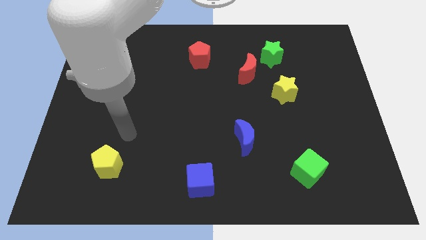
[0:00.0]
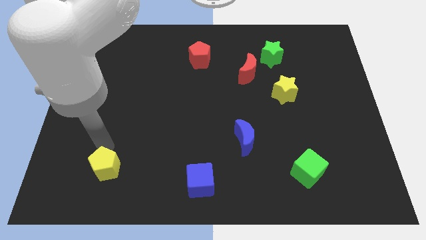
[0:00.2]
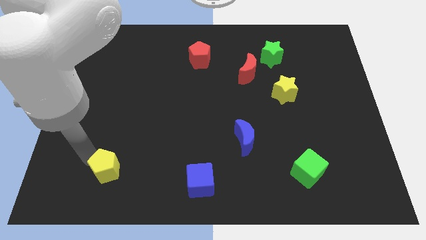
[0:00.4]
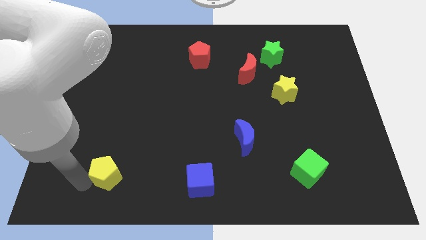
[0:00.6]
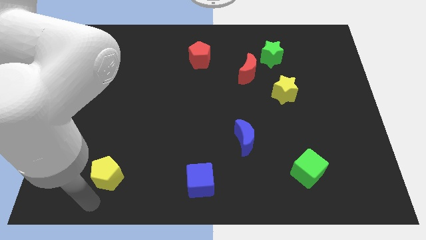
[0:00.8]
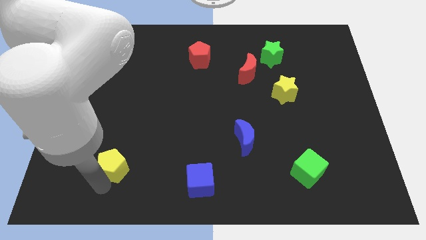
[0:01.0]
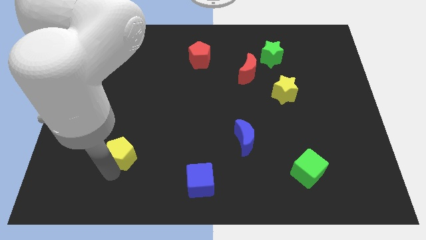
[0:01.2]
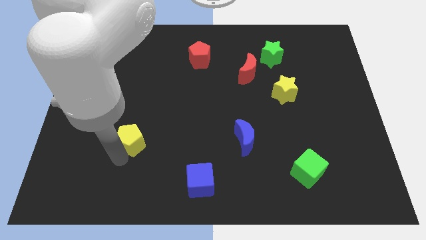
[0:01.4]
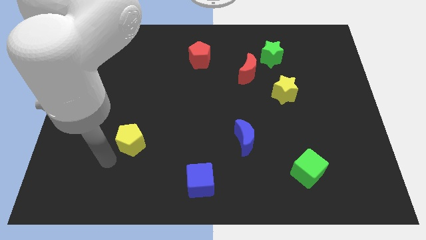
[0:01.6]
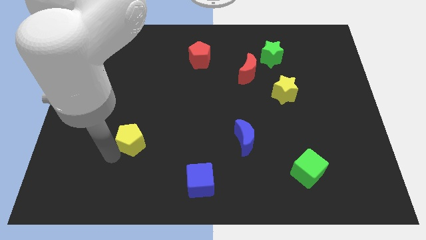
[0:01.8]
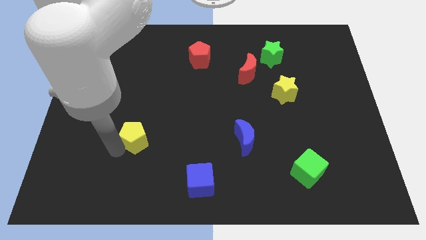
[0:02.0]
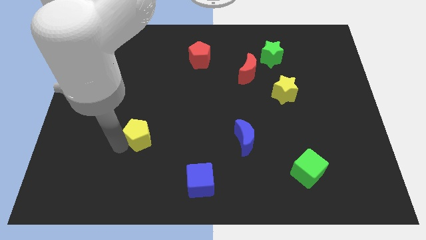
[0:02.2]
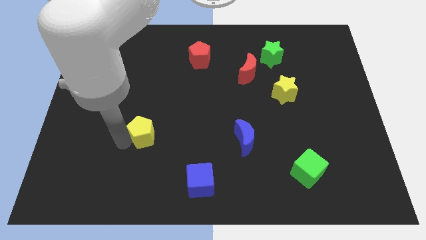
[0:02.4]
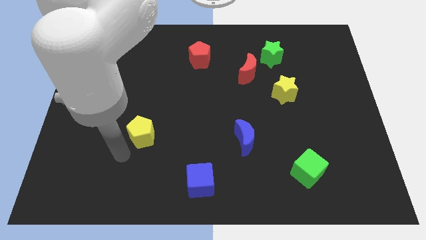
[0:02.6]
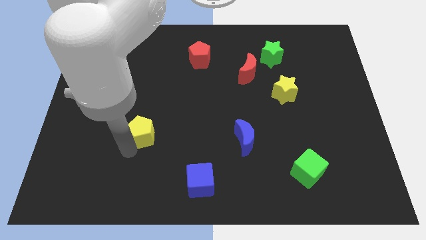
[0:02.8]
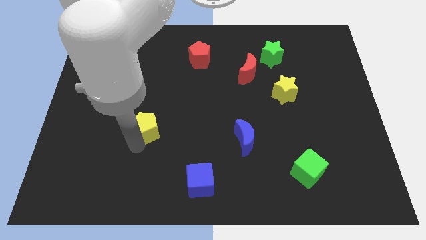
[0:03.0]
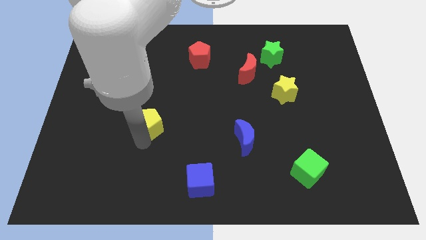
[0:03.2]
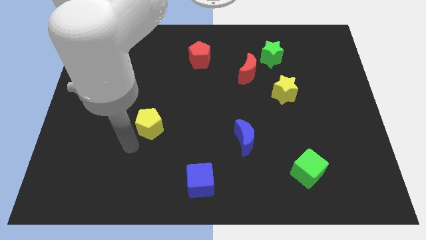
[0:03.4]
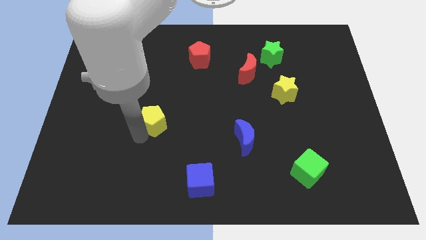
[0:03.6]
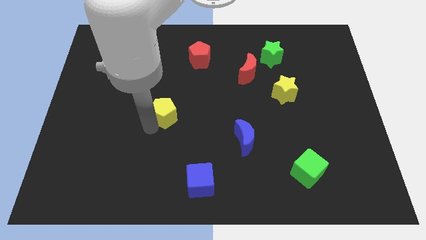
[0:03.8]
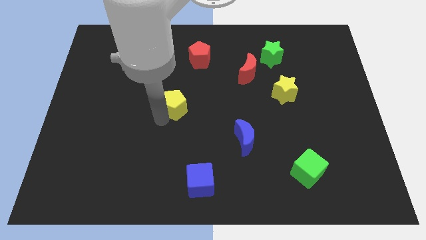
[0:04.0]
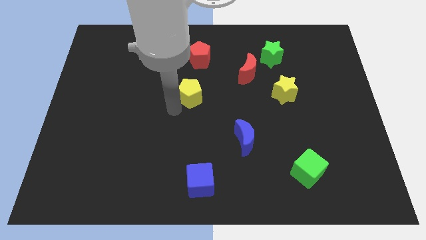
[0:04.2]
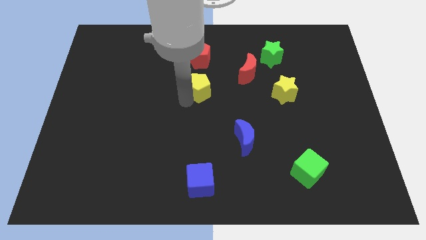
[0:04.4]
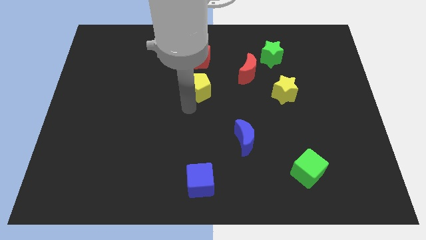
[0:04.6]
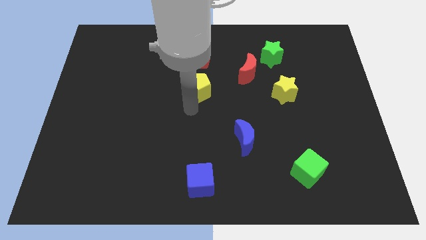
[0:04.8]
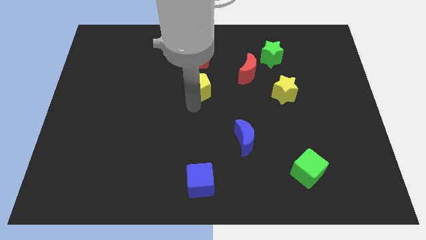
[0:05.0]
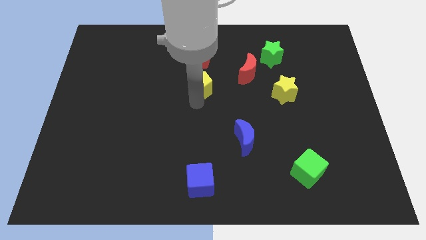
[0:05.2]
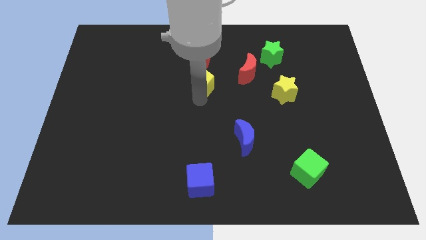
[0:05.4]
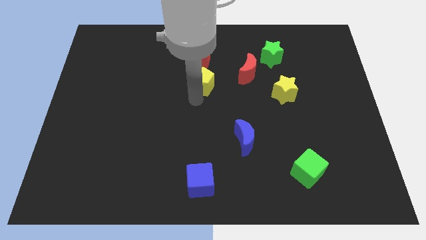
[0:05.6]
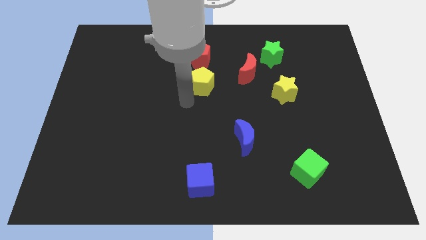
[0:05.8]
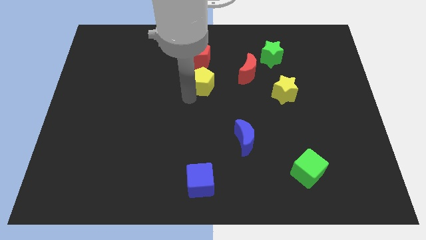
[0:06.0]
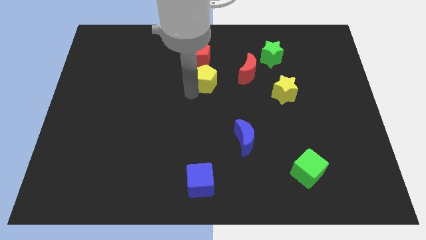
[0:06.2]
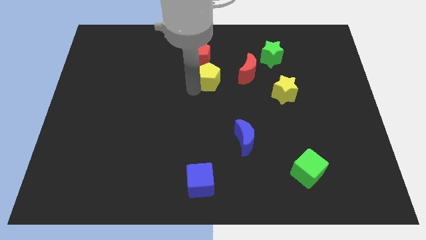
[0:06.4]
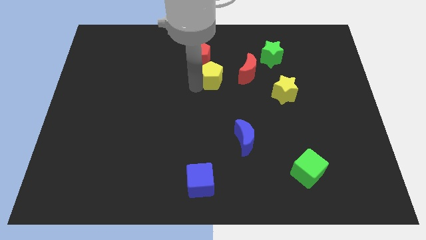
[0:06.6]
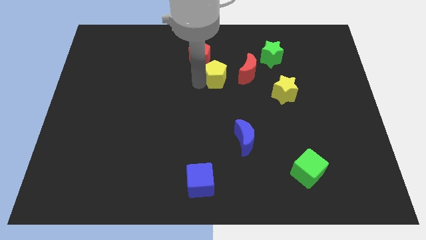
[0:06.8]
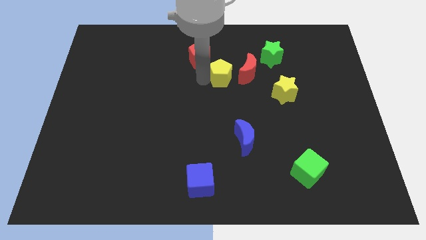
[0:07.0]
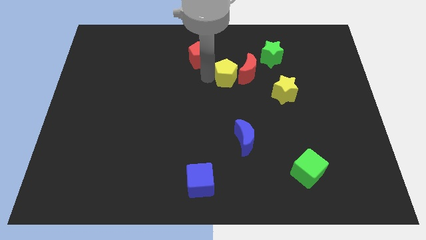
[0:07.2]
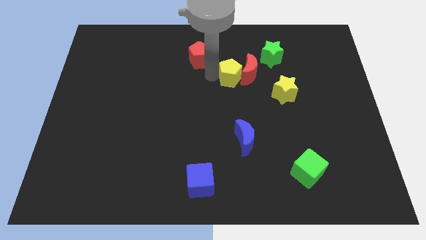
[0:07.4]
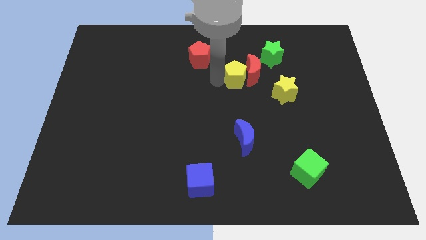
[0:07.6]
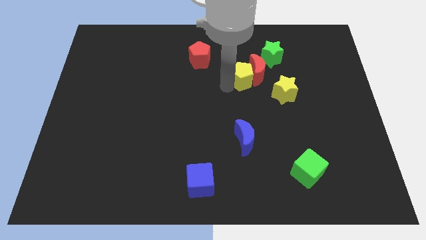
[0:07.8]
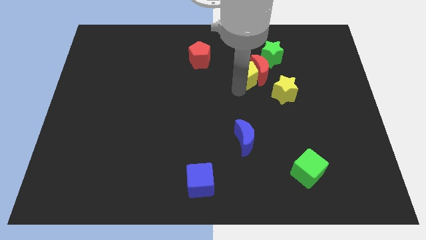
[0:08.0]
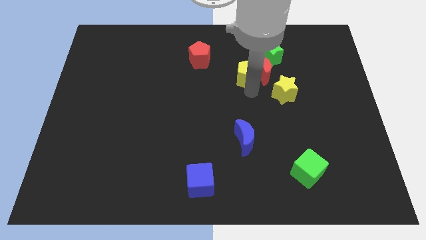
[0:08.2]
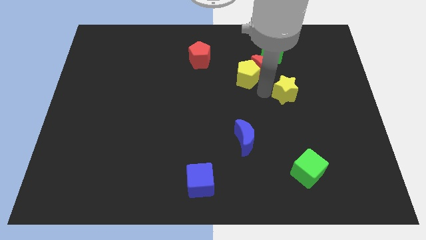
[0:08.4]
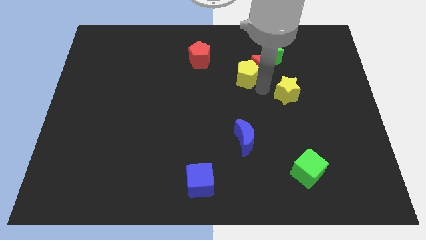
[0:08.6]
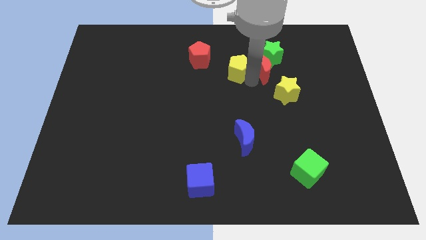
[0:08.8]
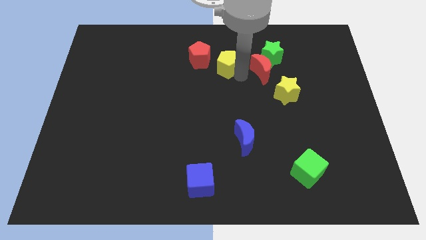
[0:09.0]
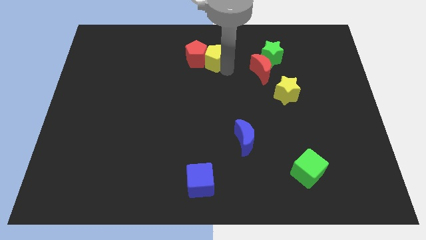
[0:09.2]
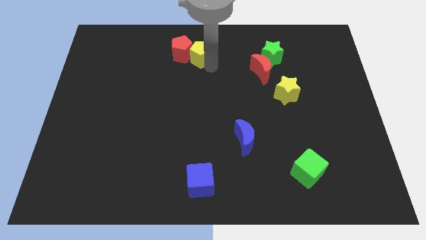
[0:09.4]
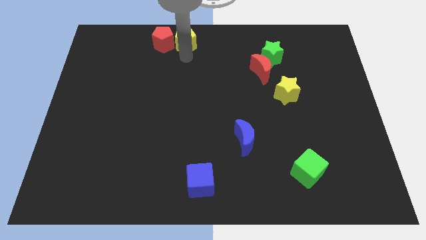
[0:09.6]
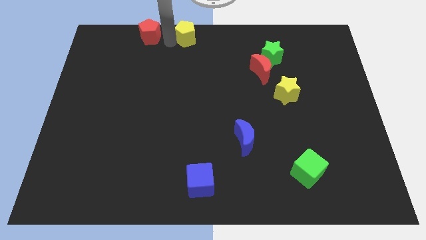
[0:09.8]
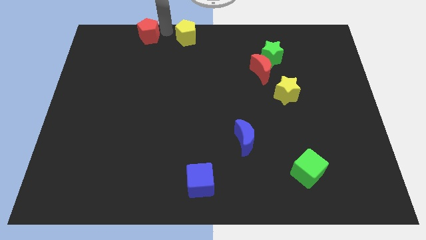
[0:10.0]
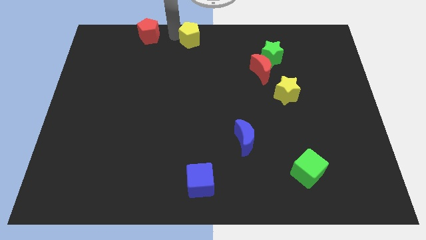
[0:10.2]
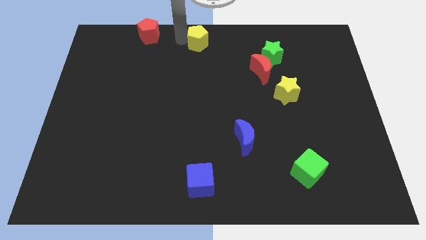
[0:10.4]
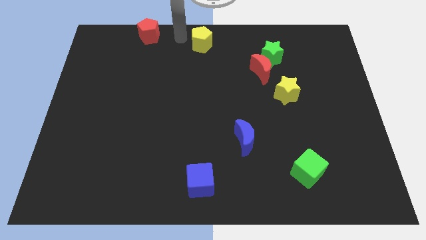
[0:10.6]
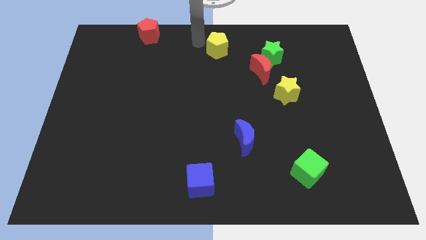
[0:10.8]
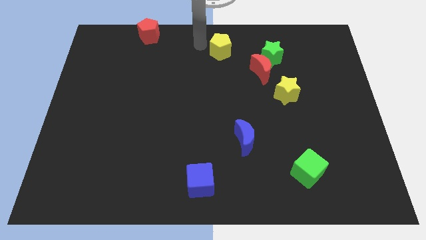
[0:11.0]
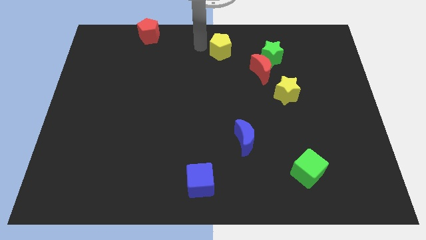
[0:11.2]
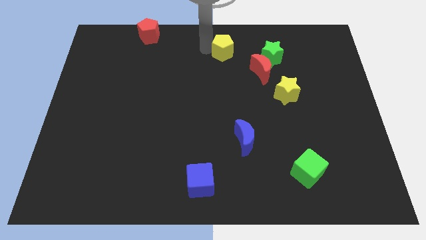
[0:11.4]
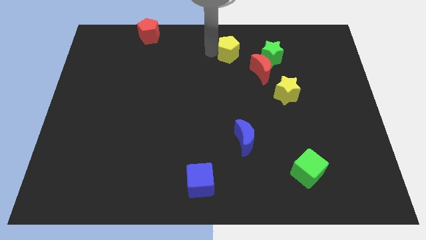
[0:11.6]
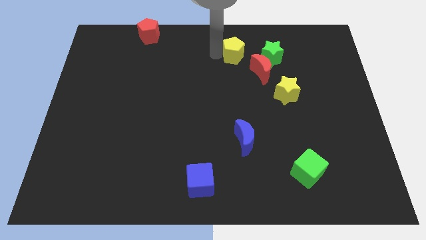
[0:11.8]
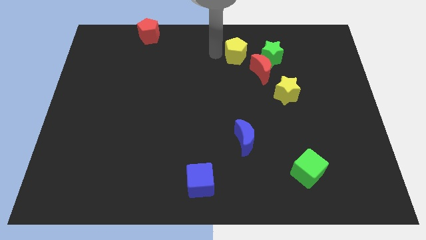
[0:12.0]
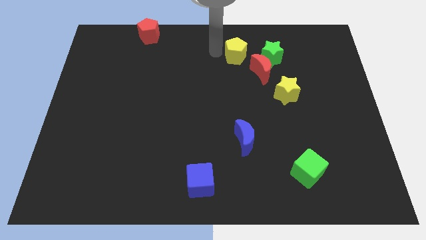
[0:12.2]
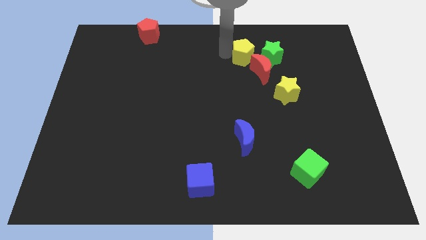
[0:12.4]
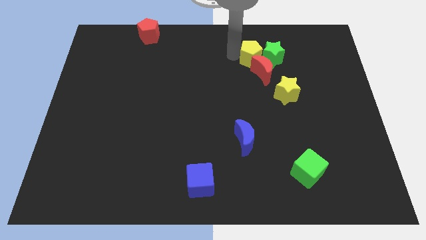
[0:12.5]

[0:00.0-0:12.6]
slide the yellow pentagon close to the green star

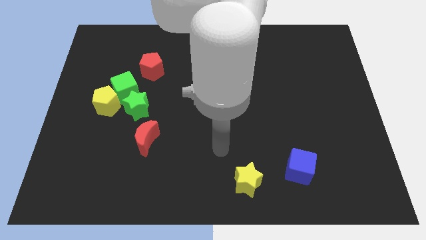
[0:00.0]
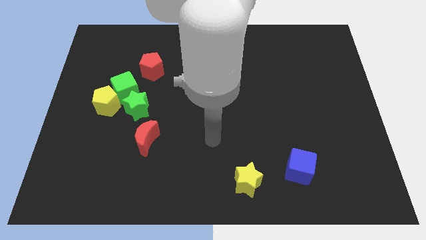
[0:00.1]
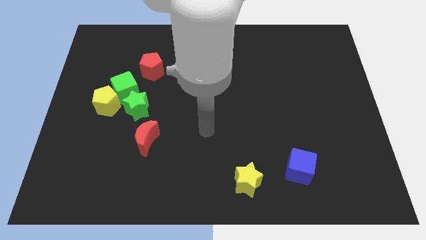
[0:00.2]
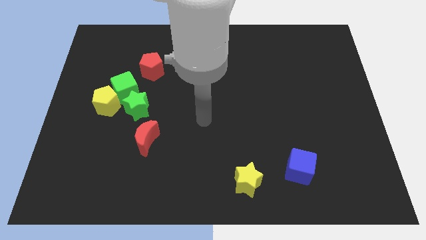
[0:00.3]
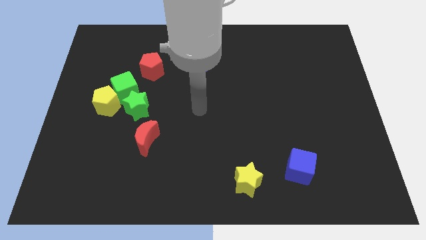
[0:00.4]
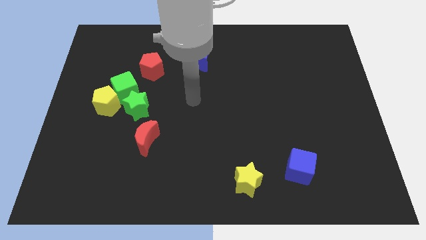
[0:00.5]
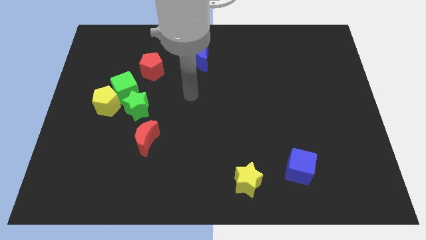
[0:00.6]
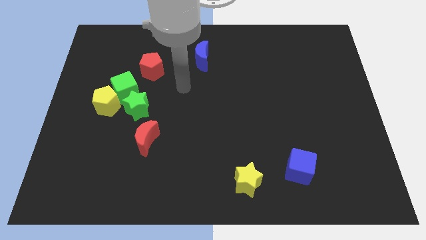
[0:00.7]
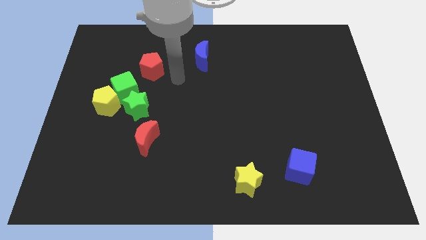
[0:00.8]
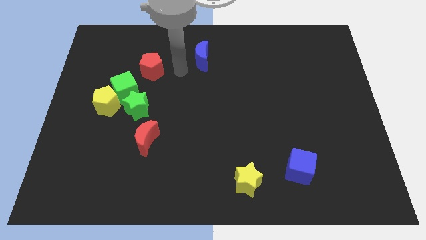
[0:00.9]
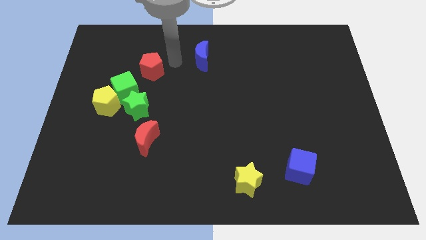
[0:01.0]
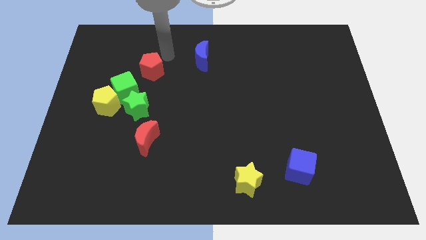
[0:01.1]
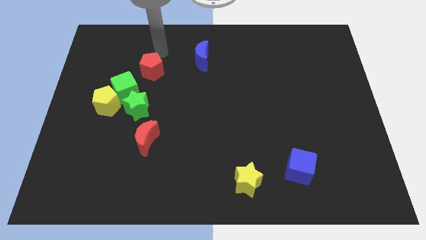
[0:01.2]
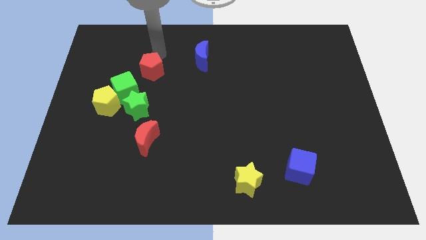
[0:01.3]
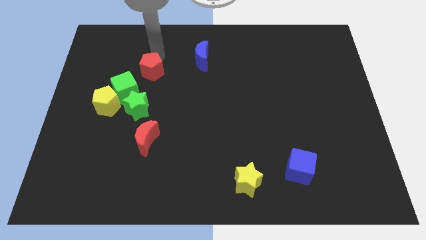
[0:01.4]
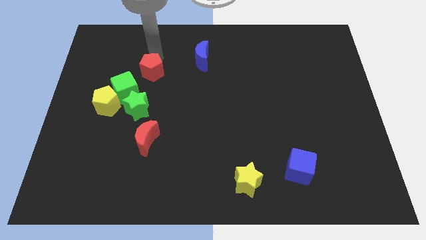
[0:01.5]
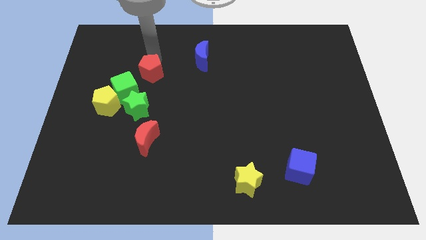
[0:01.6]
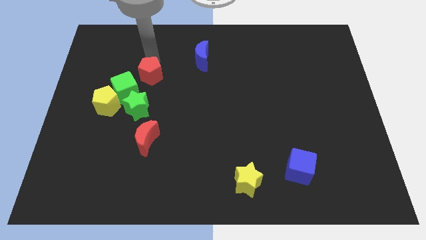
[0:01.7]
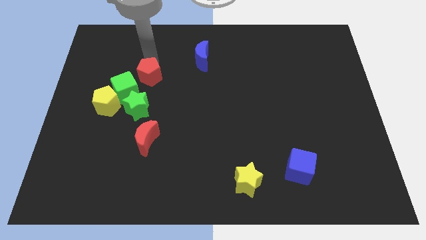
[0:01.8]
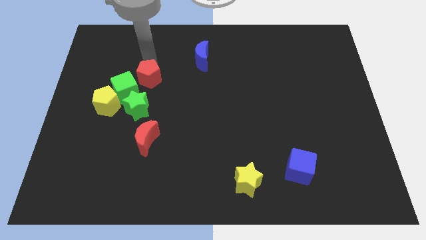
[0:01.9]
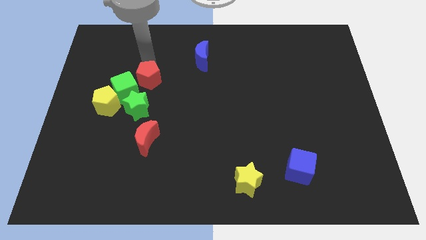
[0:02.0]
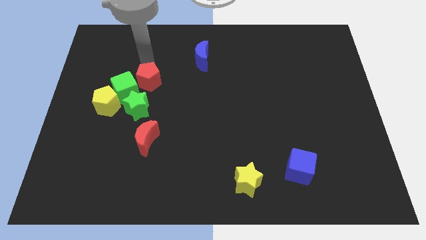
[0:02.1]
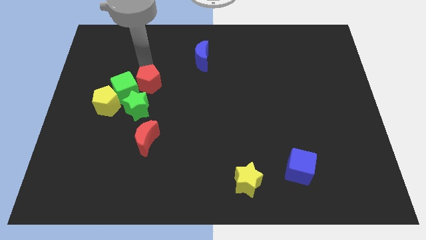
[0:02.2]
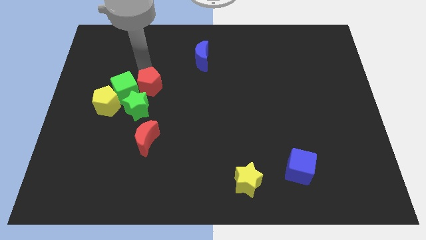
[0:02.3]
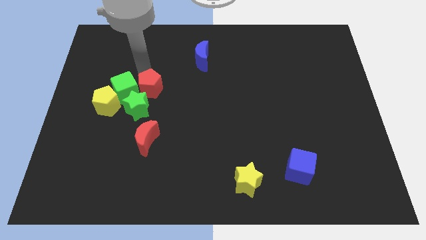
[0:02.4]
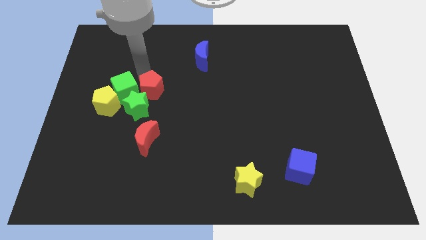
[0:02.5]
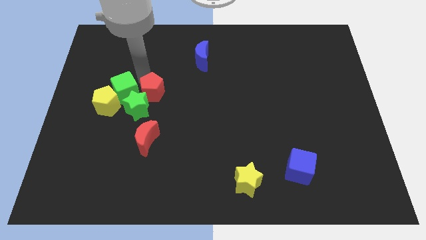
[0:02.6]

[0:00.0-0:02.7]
put the red pentagon to the green star
